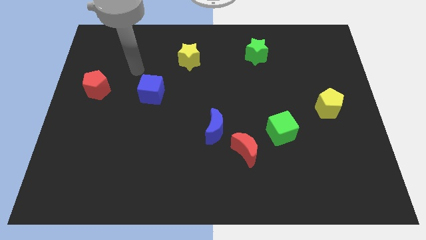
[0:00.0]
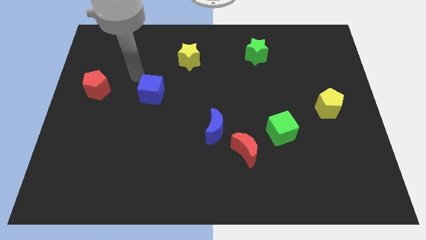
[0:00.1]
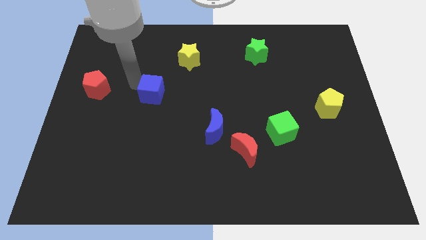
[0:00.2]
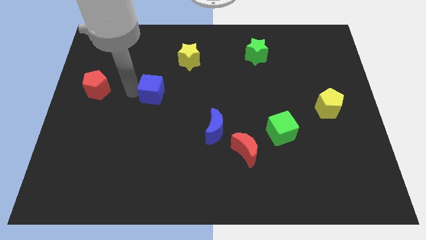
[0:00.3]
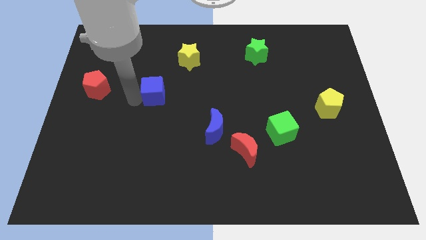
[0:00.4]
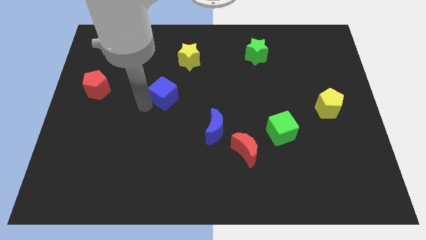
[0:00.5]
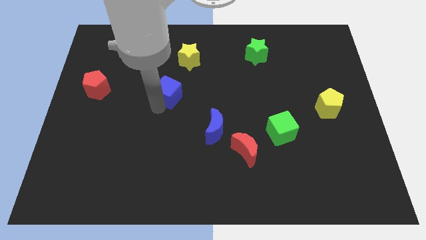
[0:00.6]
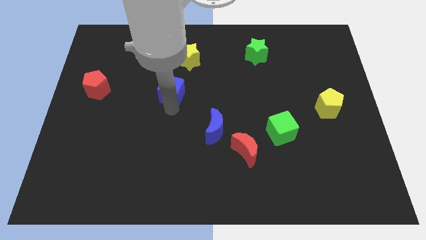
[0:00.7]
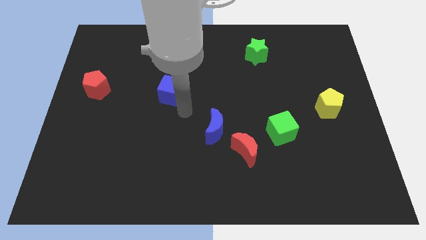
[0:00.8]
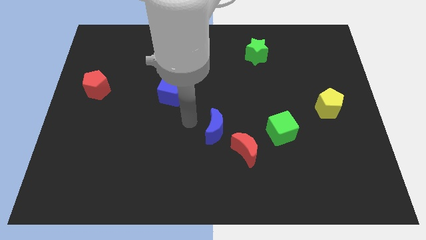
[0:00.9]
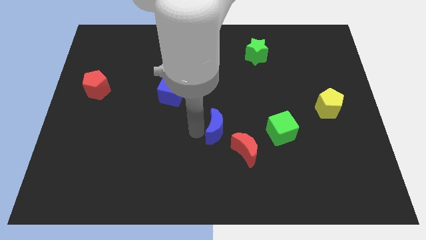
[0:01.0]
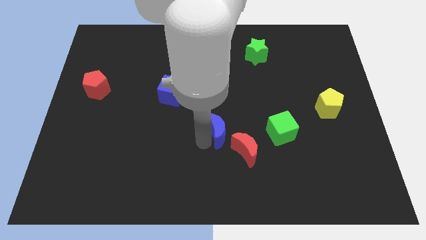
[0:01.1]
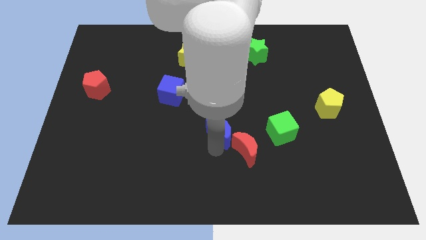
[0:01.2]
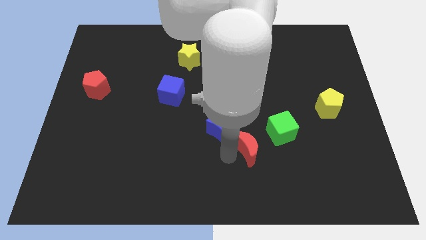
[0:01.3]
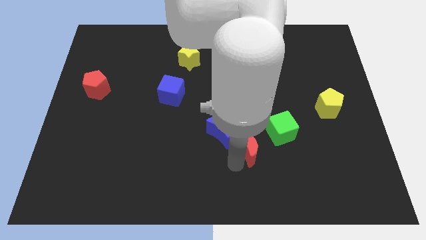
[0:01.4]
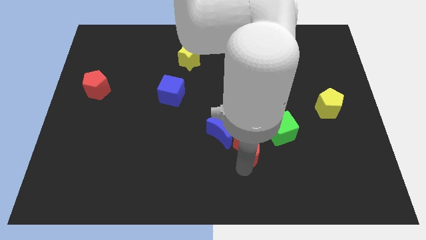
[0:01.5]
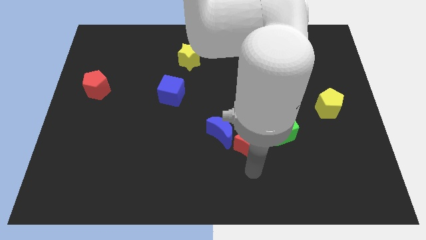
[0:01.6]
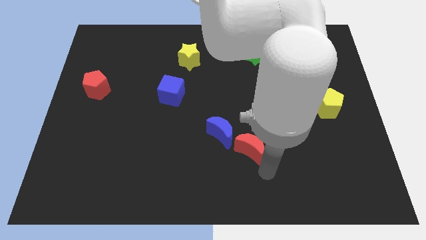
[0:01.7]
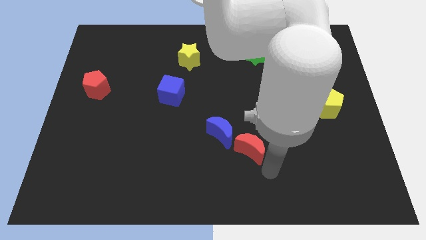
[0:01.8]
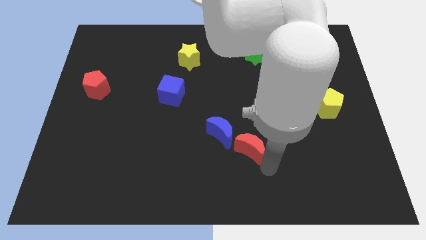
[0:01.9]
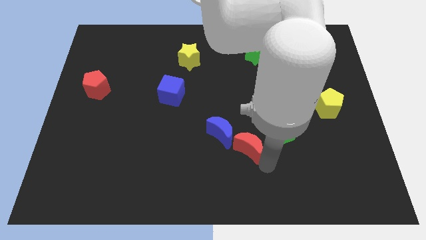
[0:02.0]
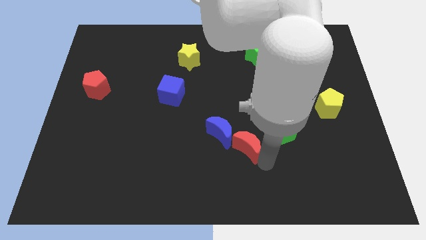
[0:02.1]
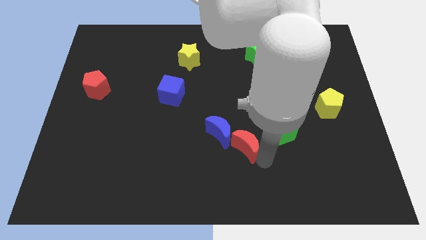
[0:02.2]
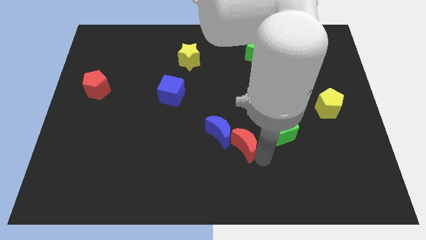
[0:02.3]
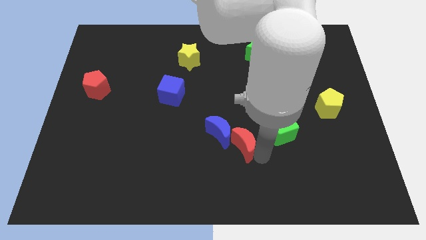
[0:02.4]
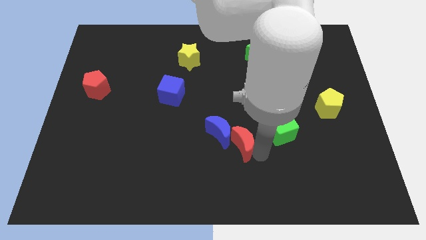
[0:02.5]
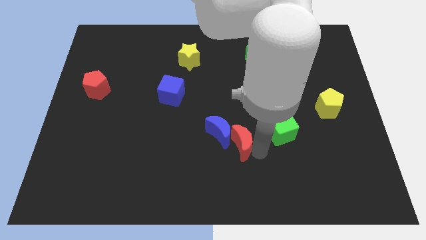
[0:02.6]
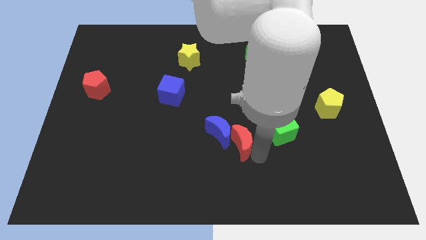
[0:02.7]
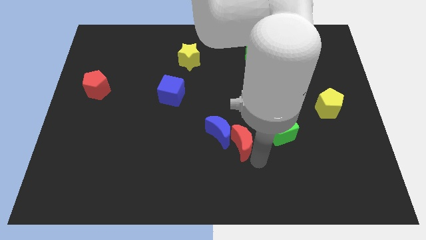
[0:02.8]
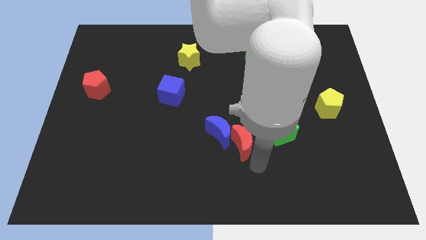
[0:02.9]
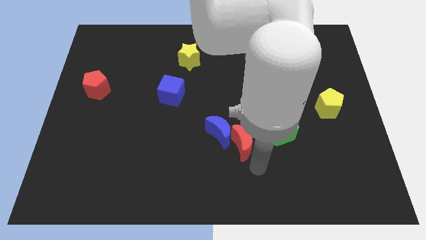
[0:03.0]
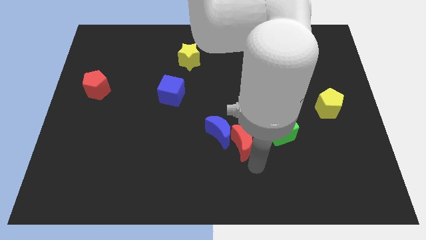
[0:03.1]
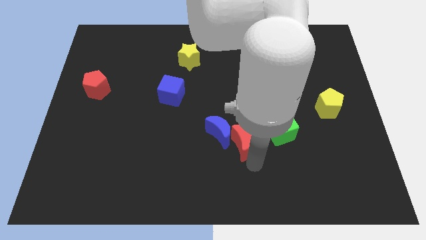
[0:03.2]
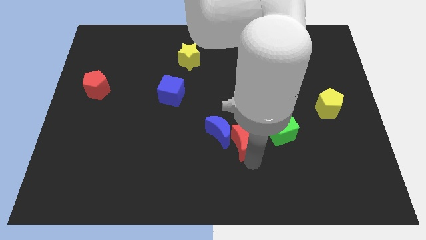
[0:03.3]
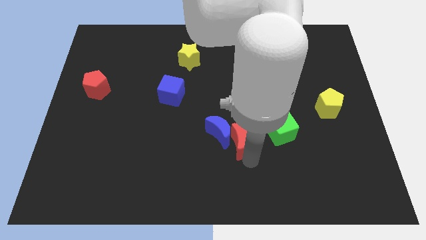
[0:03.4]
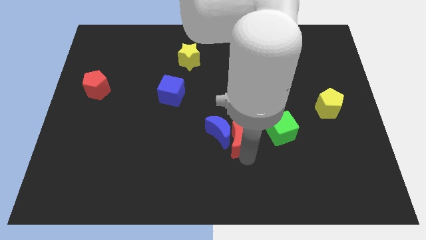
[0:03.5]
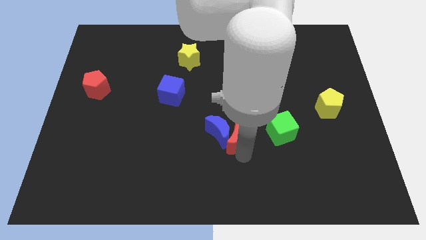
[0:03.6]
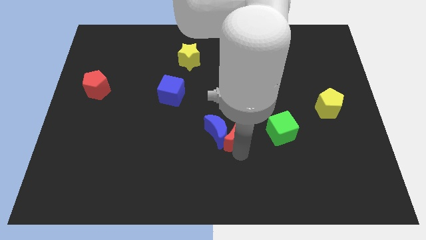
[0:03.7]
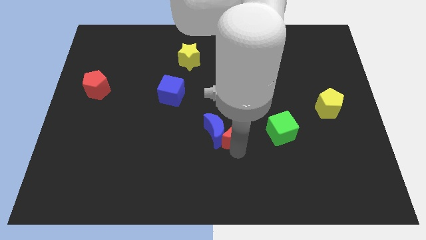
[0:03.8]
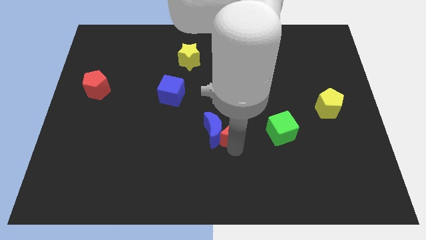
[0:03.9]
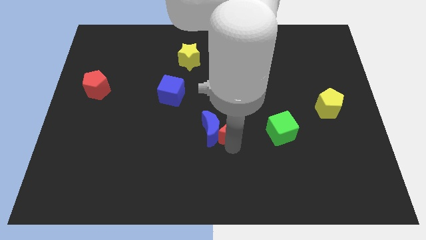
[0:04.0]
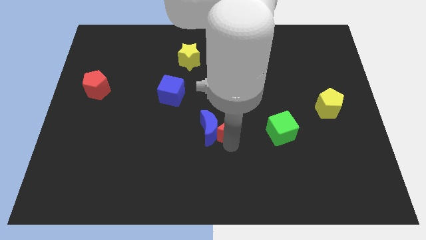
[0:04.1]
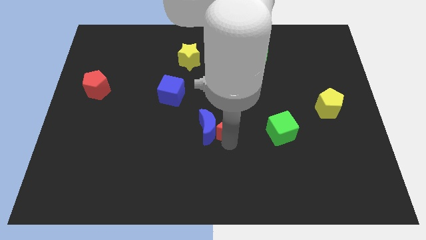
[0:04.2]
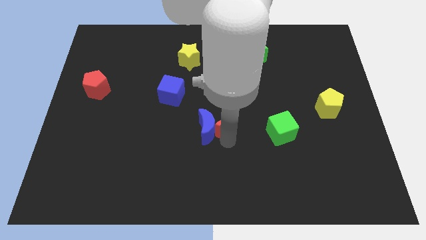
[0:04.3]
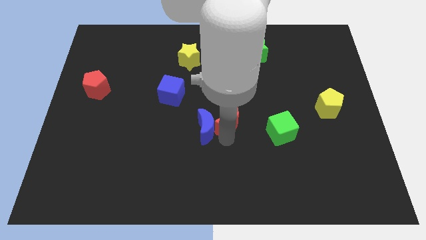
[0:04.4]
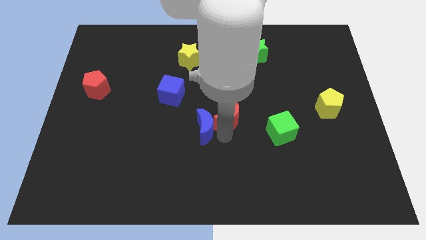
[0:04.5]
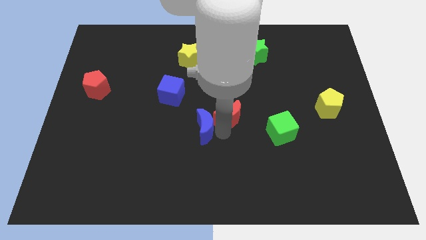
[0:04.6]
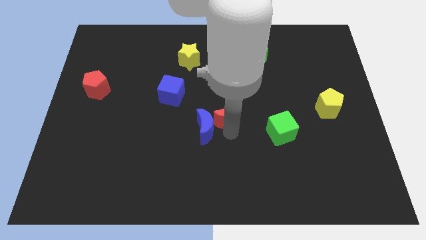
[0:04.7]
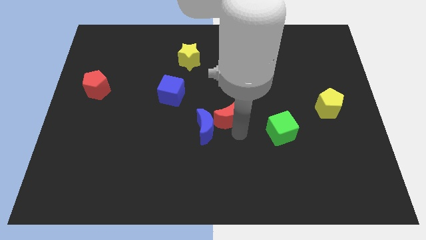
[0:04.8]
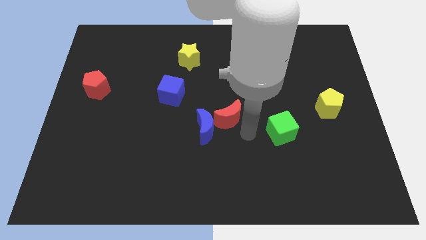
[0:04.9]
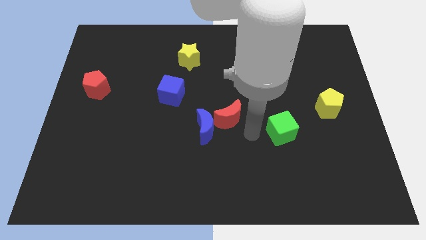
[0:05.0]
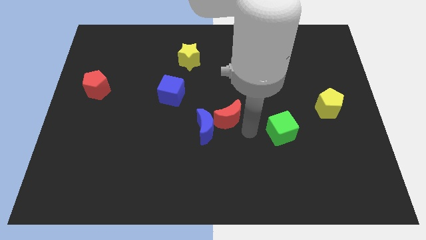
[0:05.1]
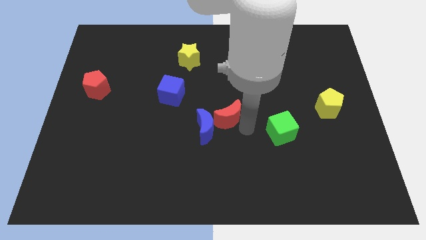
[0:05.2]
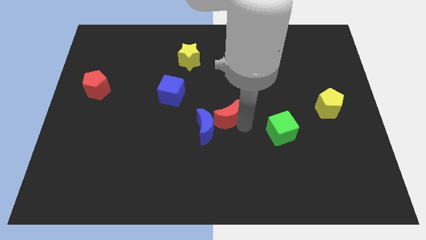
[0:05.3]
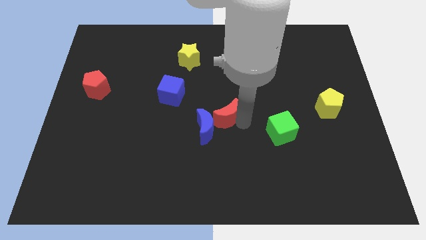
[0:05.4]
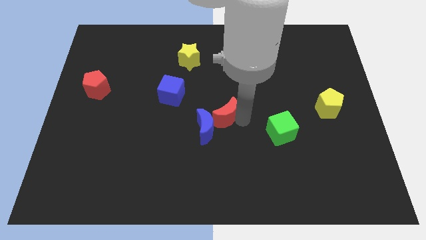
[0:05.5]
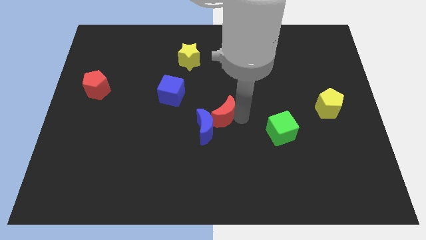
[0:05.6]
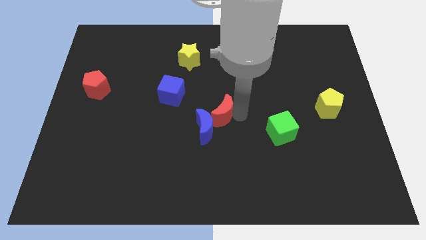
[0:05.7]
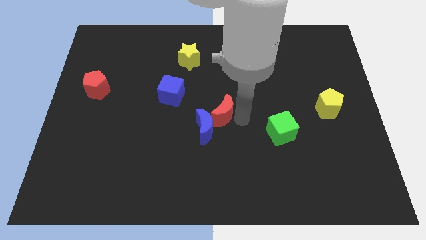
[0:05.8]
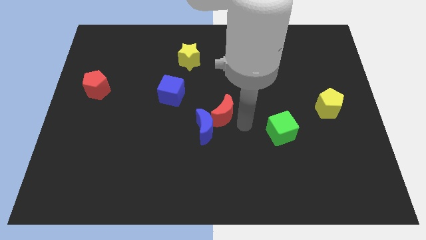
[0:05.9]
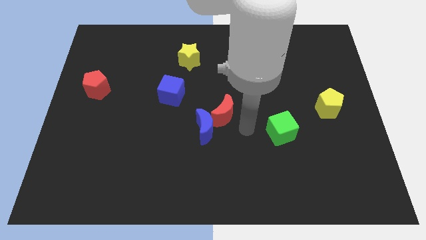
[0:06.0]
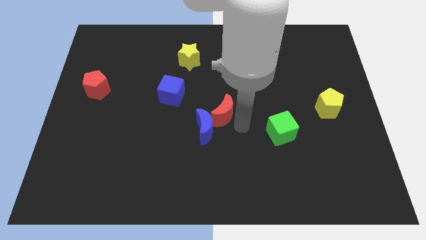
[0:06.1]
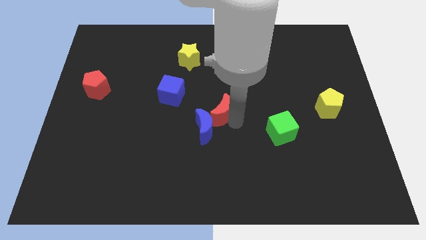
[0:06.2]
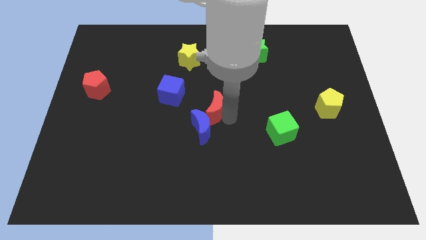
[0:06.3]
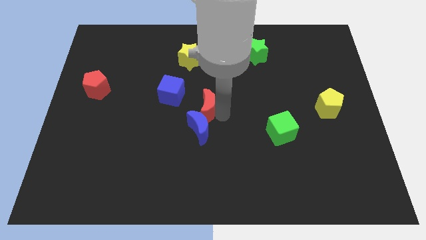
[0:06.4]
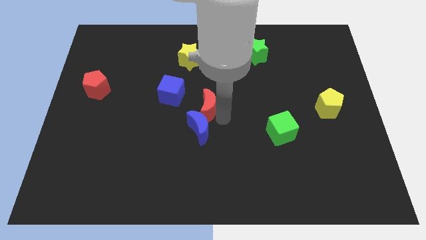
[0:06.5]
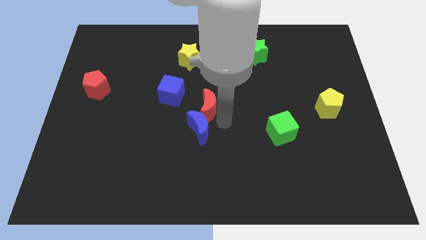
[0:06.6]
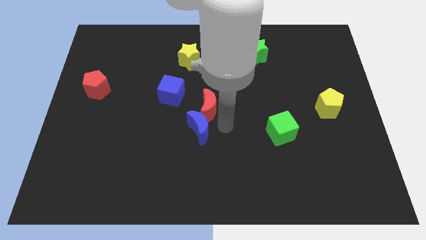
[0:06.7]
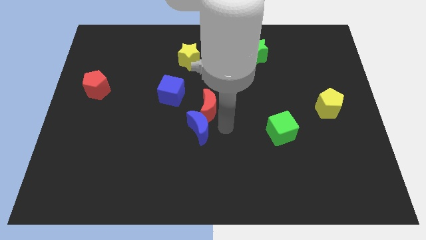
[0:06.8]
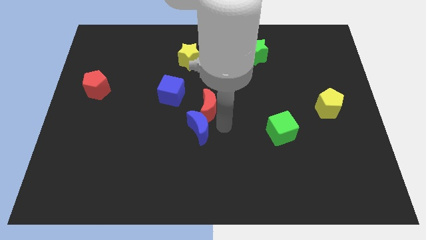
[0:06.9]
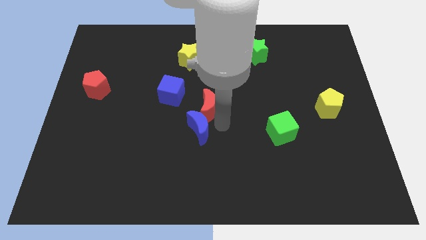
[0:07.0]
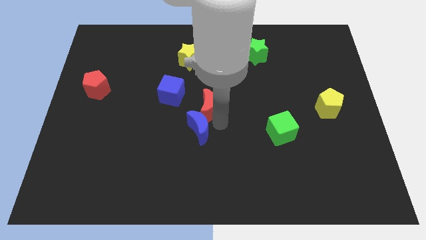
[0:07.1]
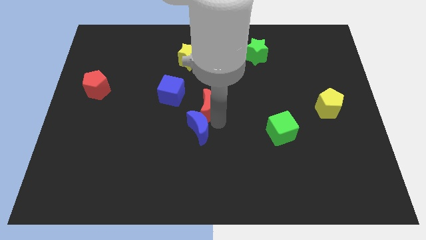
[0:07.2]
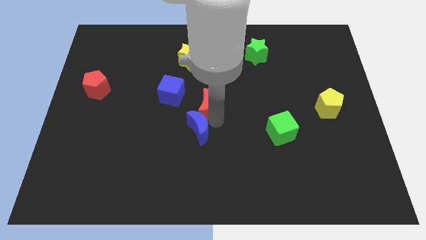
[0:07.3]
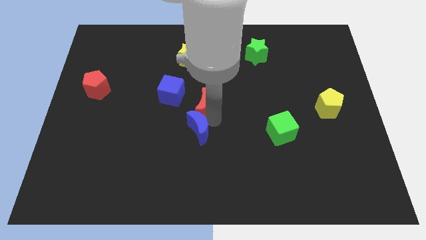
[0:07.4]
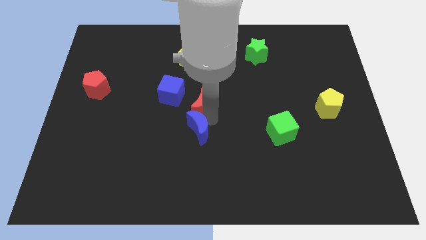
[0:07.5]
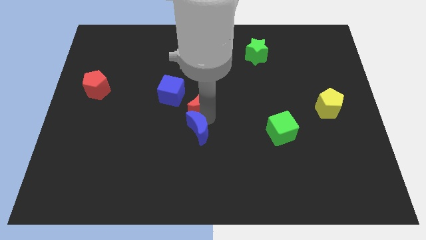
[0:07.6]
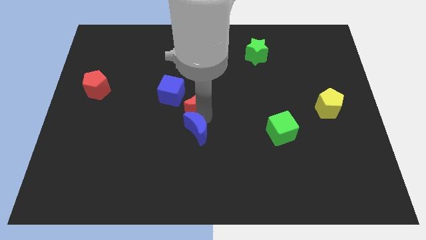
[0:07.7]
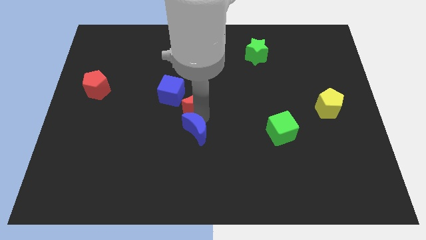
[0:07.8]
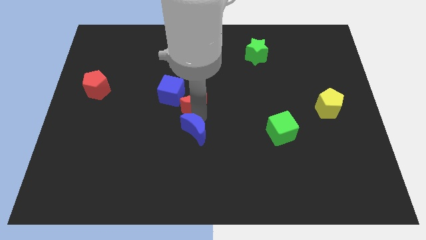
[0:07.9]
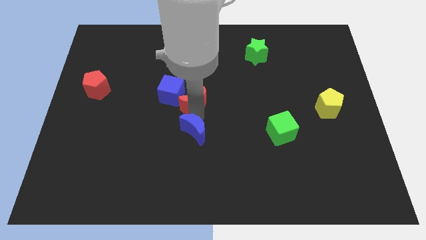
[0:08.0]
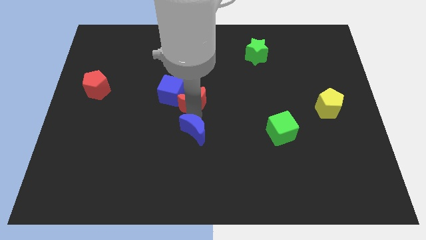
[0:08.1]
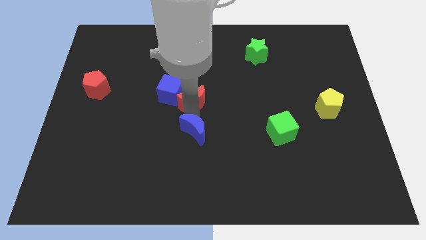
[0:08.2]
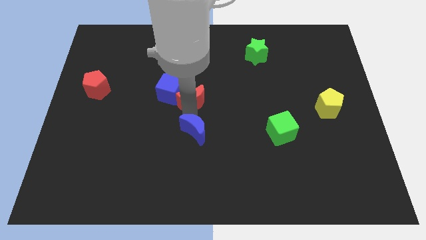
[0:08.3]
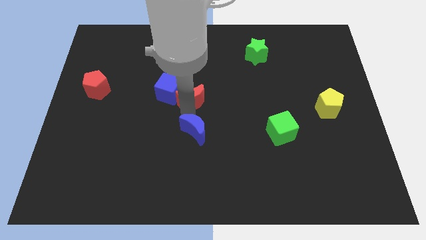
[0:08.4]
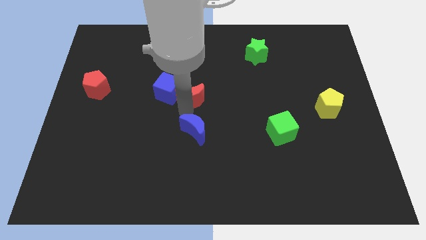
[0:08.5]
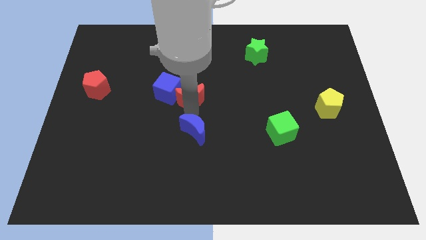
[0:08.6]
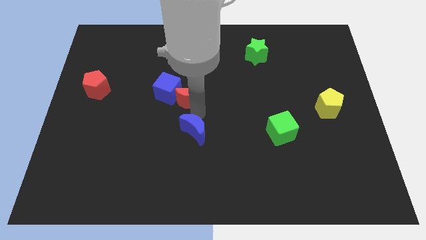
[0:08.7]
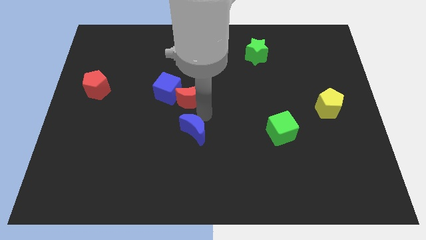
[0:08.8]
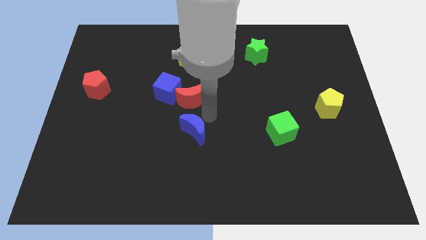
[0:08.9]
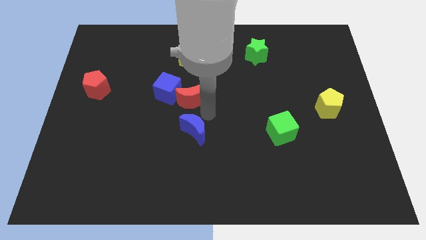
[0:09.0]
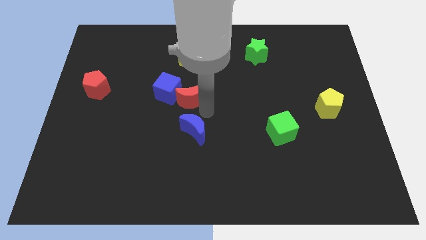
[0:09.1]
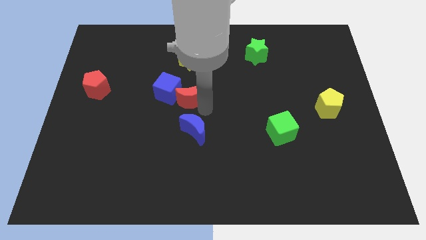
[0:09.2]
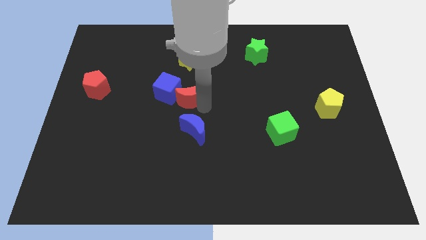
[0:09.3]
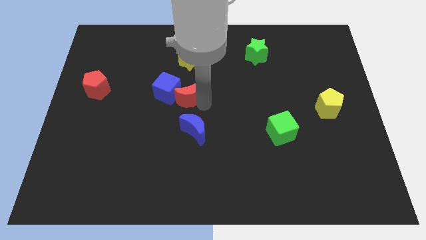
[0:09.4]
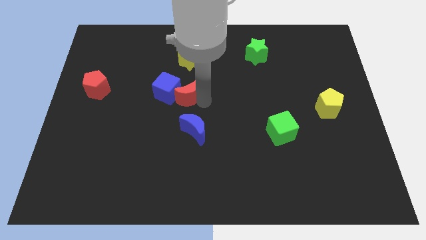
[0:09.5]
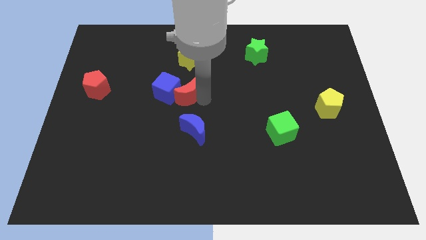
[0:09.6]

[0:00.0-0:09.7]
move the red moon diagonally up and to the left
